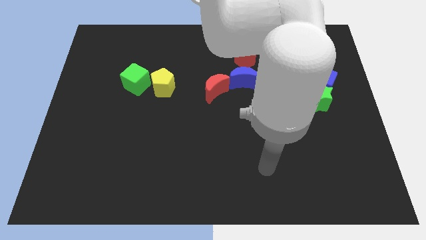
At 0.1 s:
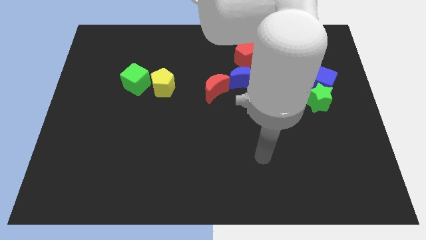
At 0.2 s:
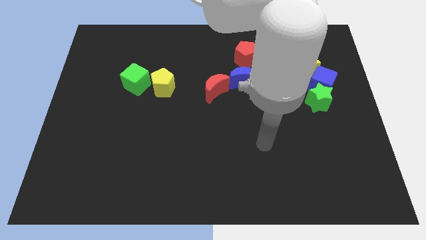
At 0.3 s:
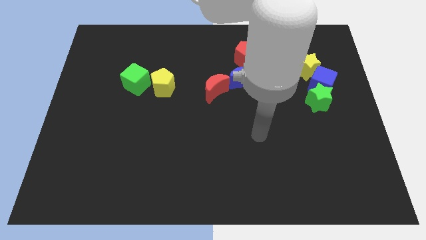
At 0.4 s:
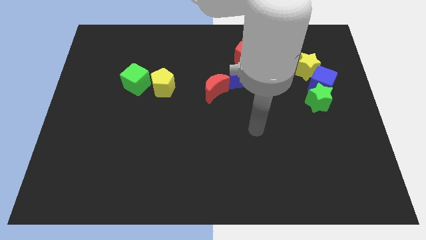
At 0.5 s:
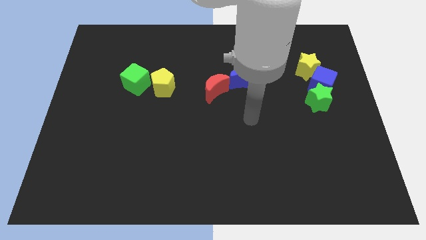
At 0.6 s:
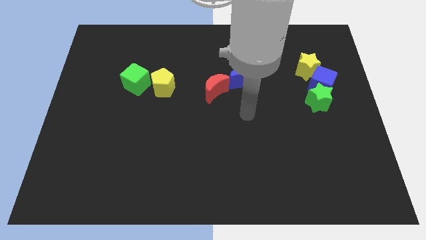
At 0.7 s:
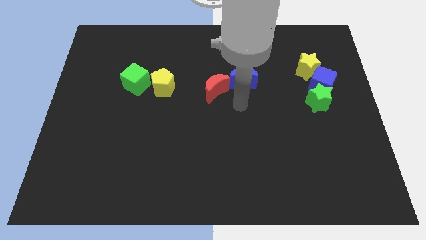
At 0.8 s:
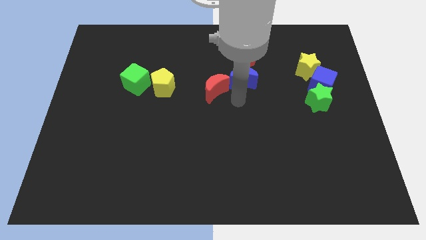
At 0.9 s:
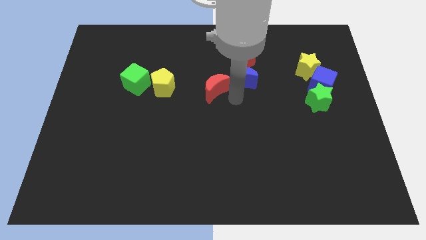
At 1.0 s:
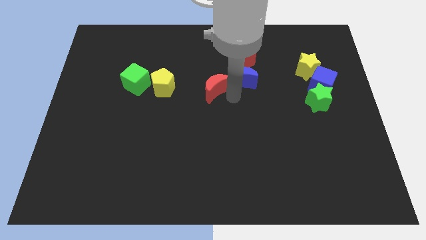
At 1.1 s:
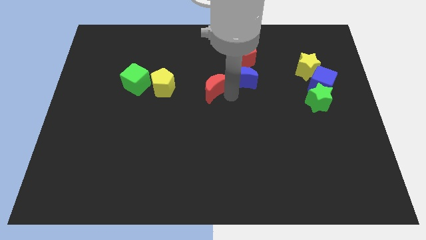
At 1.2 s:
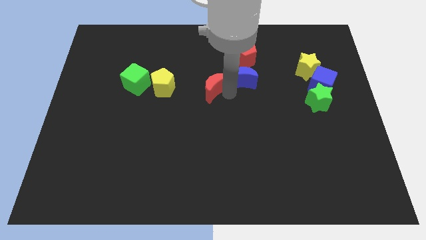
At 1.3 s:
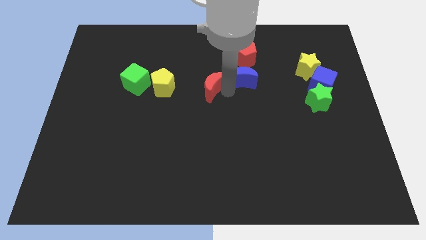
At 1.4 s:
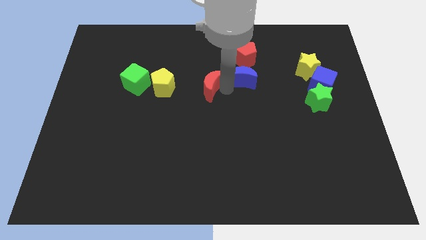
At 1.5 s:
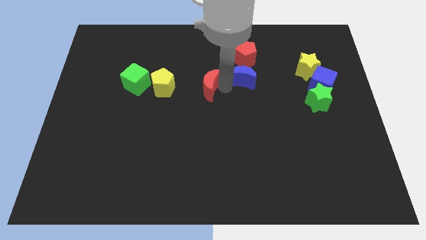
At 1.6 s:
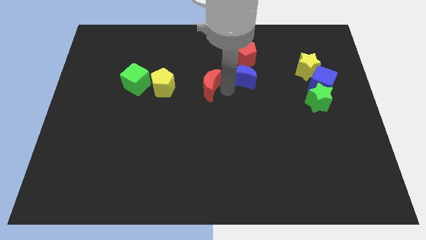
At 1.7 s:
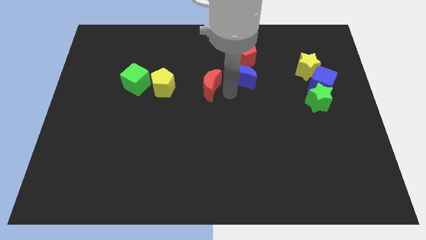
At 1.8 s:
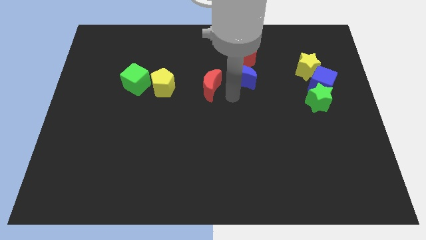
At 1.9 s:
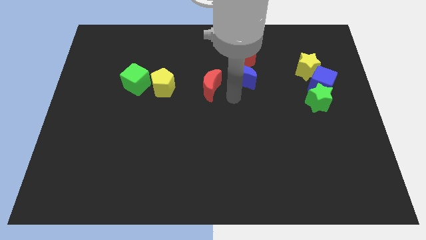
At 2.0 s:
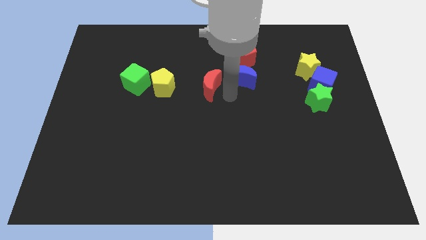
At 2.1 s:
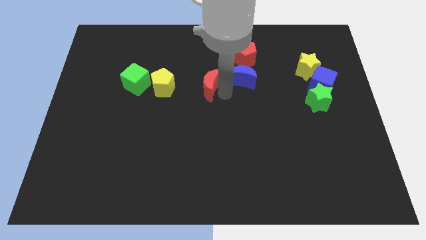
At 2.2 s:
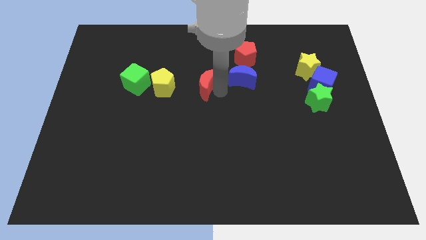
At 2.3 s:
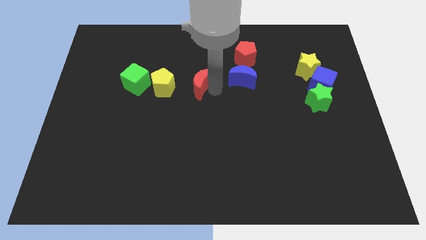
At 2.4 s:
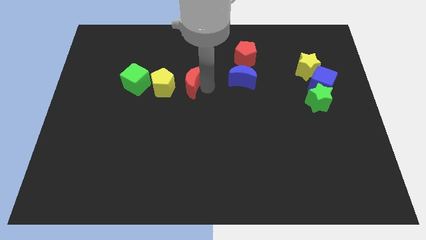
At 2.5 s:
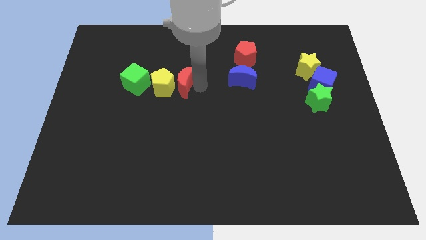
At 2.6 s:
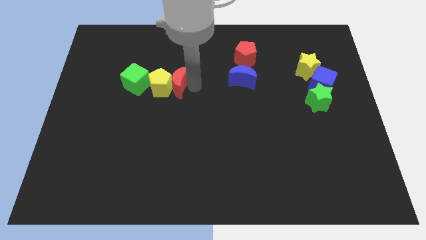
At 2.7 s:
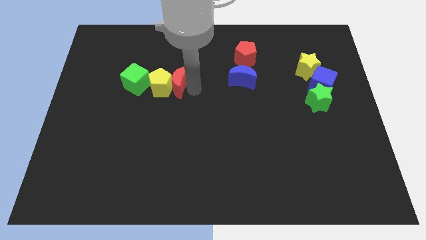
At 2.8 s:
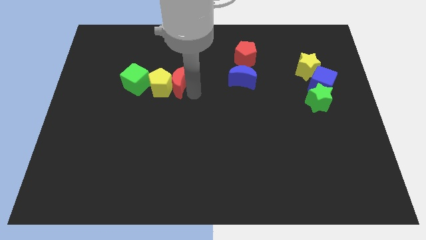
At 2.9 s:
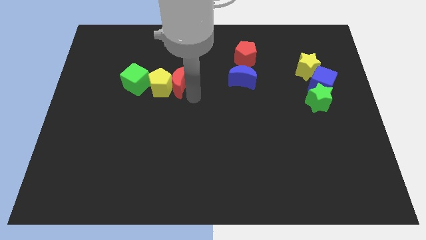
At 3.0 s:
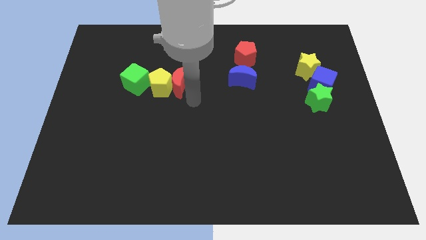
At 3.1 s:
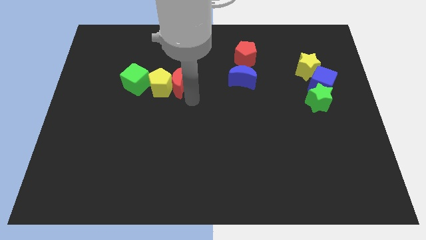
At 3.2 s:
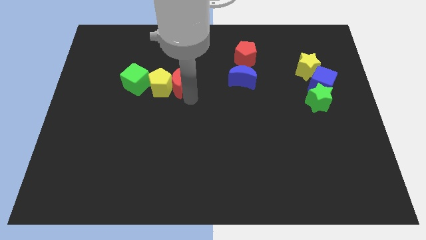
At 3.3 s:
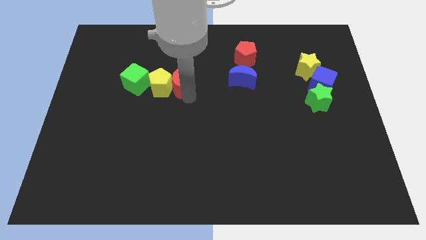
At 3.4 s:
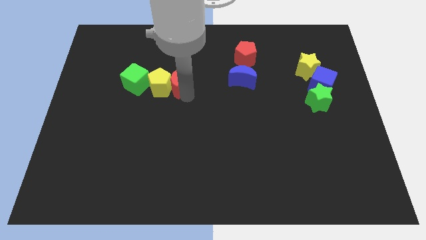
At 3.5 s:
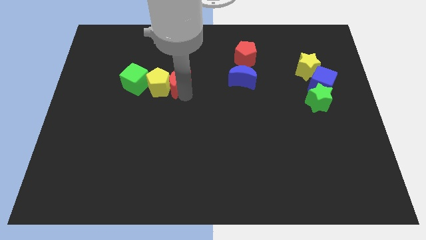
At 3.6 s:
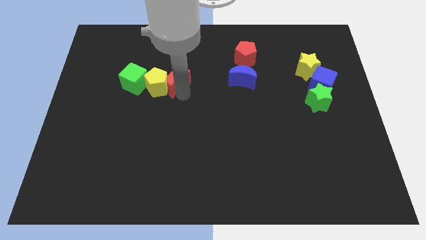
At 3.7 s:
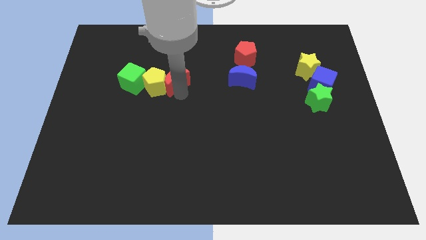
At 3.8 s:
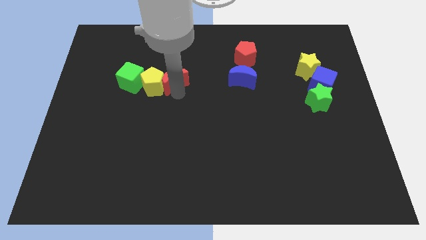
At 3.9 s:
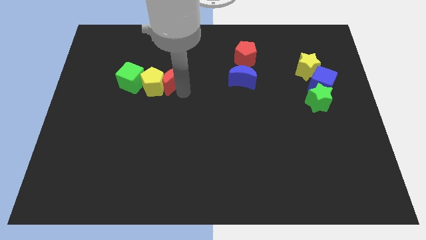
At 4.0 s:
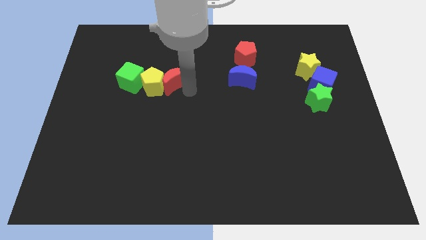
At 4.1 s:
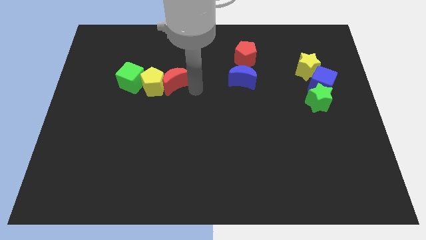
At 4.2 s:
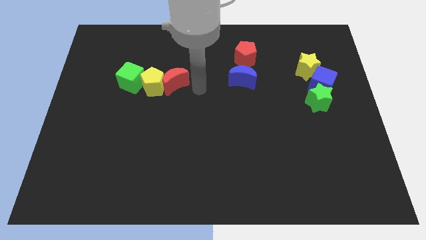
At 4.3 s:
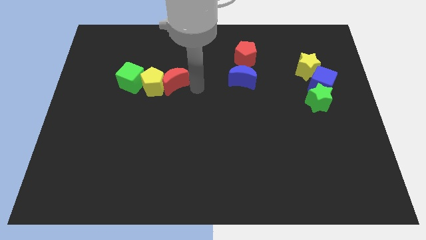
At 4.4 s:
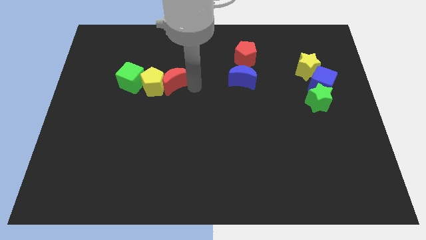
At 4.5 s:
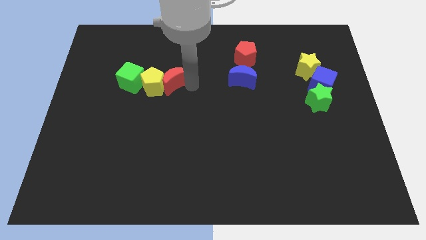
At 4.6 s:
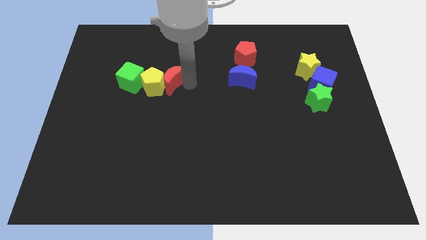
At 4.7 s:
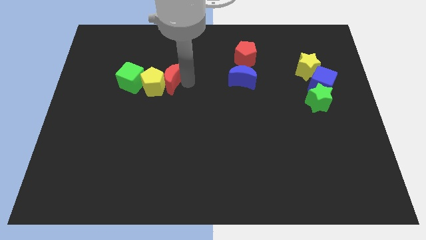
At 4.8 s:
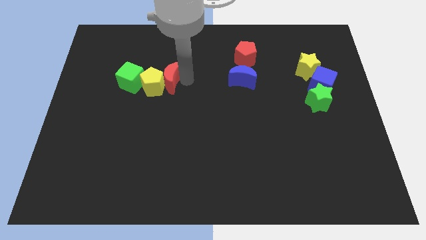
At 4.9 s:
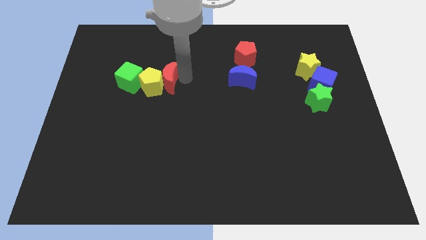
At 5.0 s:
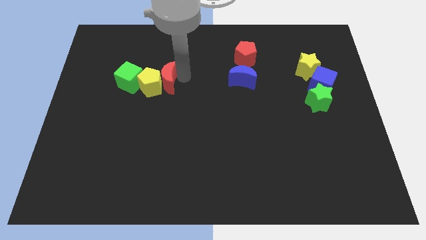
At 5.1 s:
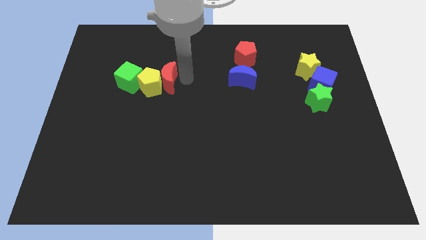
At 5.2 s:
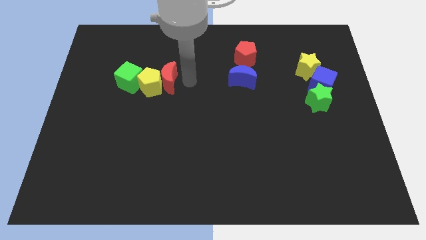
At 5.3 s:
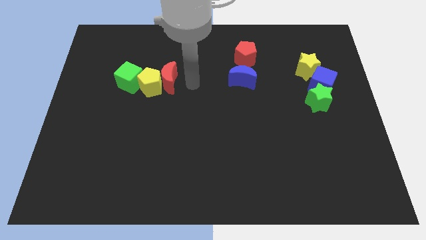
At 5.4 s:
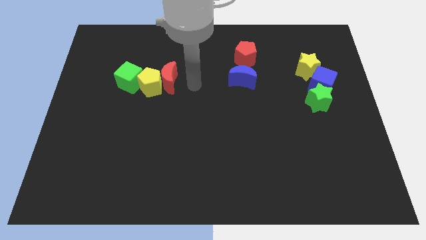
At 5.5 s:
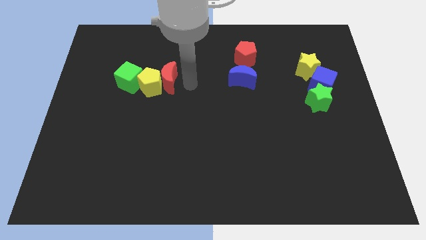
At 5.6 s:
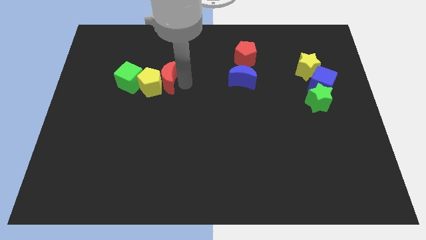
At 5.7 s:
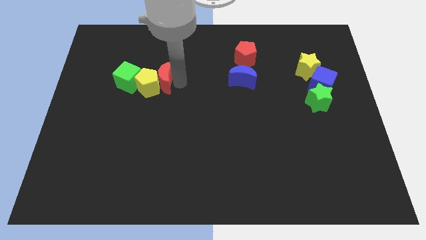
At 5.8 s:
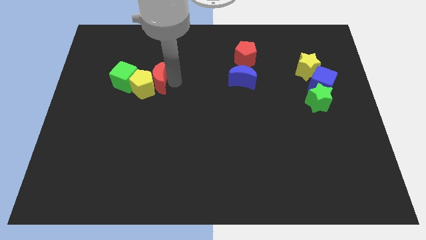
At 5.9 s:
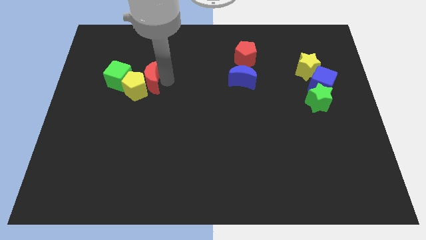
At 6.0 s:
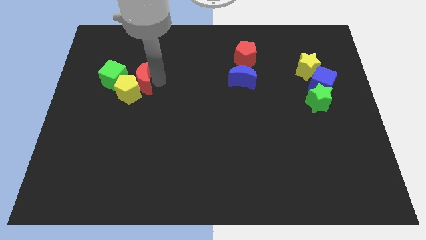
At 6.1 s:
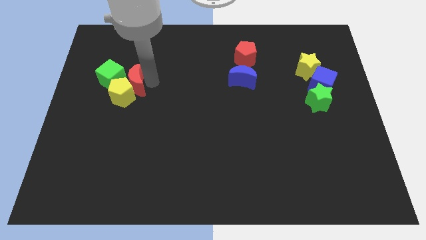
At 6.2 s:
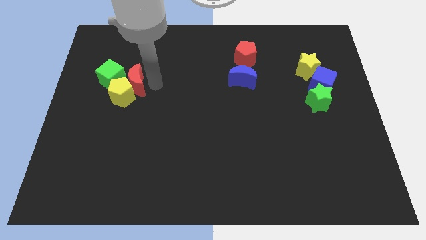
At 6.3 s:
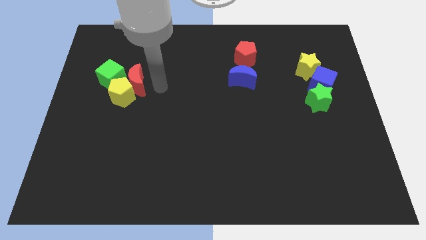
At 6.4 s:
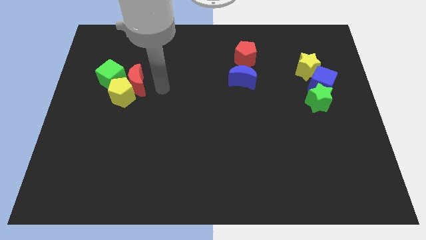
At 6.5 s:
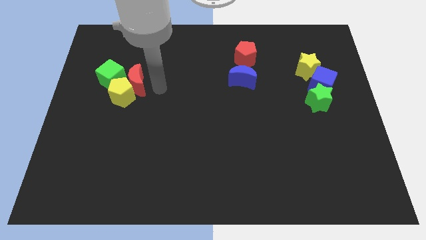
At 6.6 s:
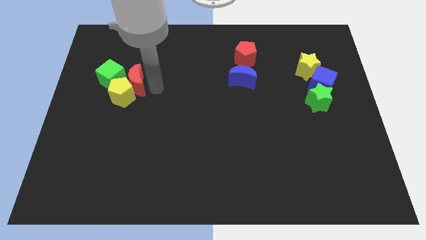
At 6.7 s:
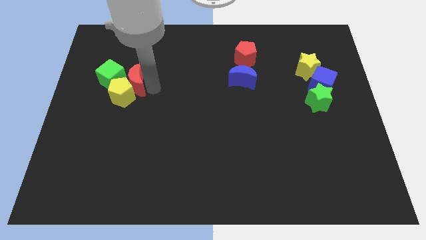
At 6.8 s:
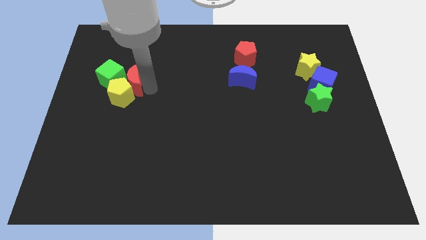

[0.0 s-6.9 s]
move the red moon next to the green cube
